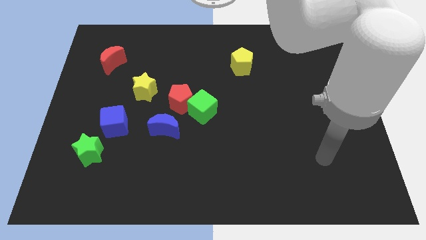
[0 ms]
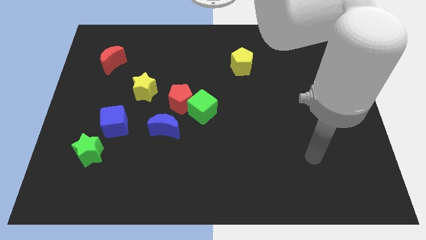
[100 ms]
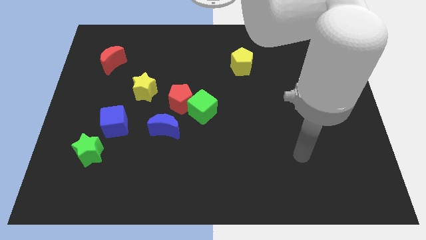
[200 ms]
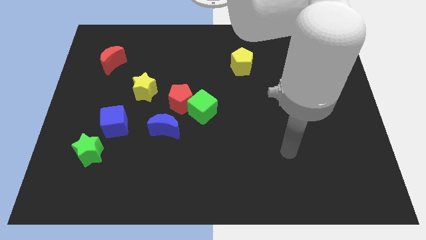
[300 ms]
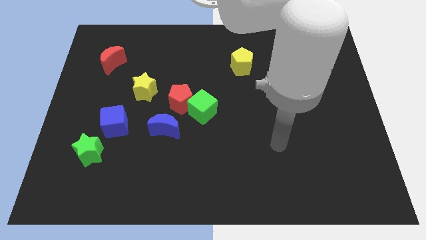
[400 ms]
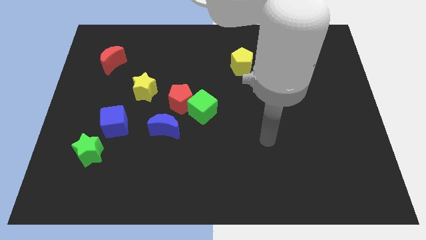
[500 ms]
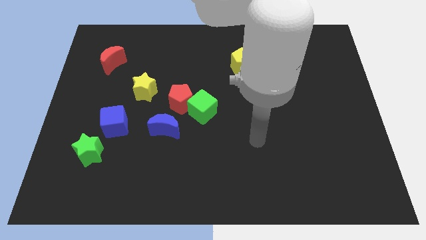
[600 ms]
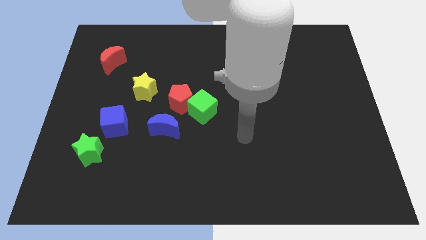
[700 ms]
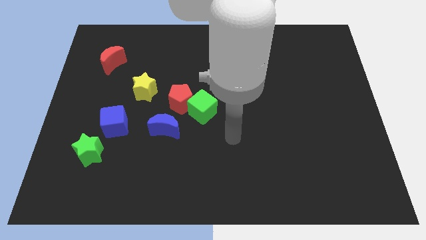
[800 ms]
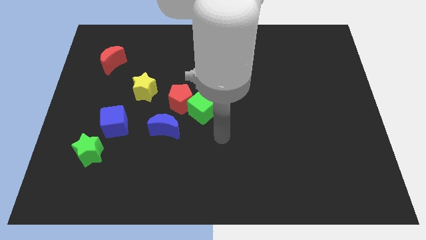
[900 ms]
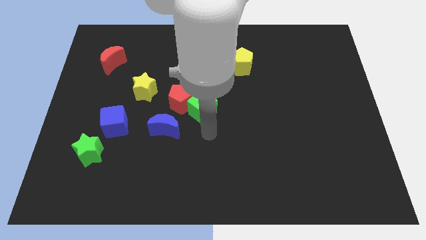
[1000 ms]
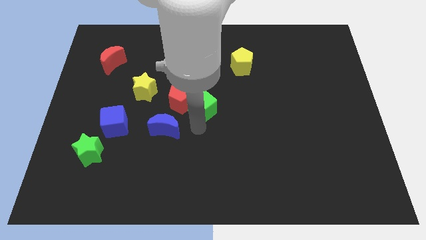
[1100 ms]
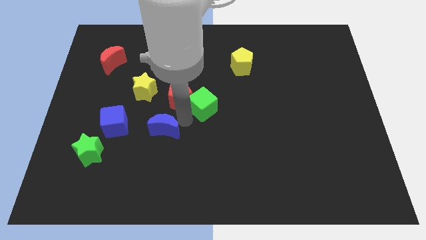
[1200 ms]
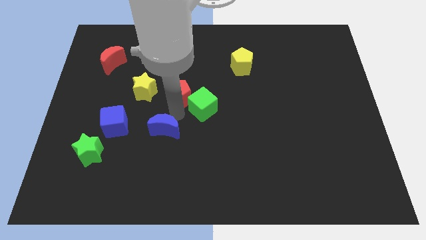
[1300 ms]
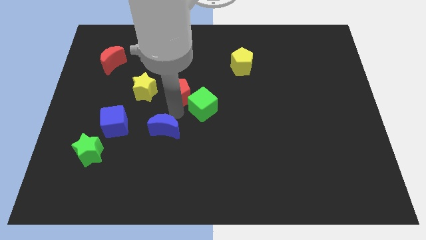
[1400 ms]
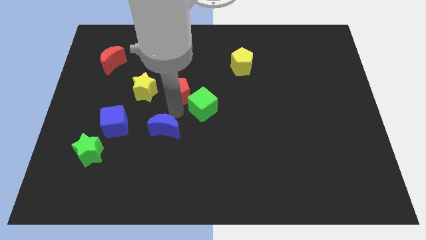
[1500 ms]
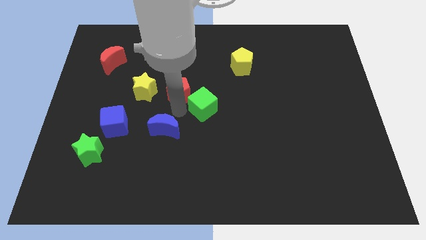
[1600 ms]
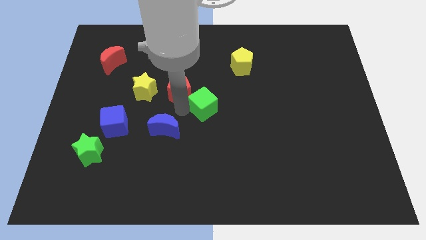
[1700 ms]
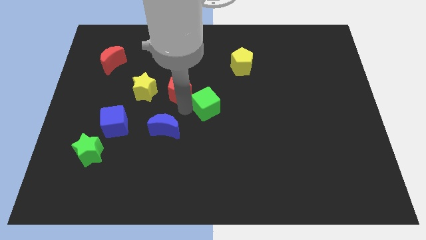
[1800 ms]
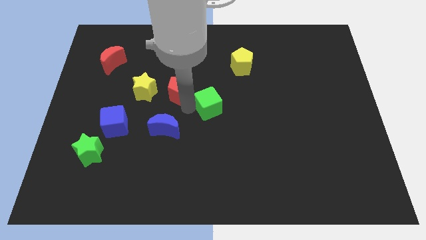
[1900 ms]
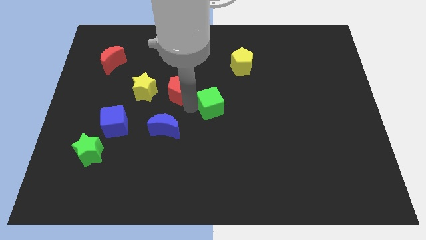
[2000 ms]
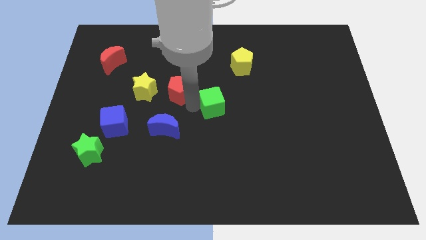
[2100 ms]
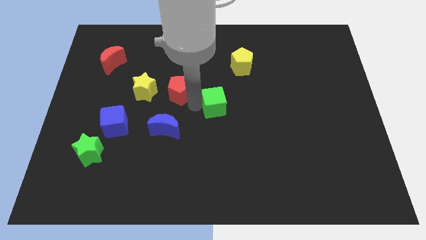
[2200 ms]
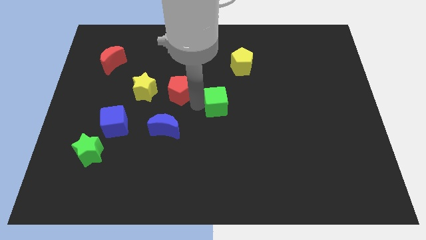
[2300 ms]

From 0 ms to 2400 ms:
move the green cube away from the red pentagon and blue moon

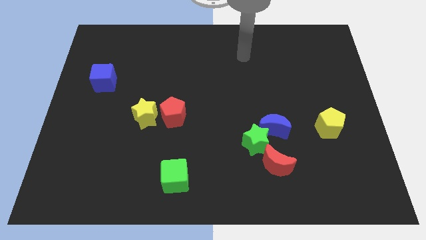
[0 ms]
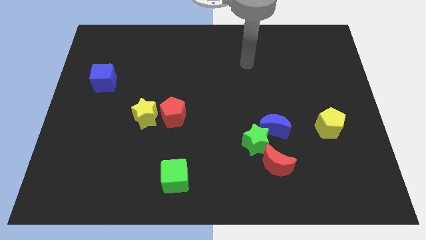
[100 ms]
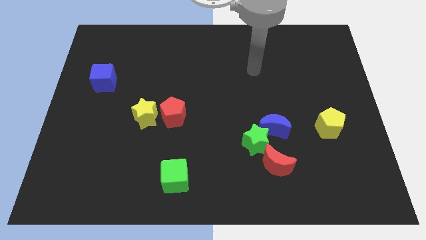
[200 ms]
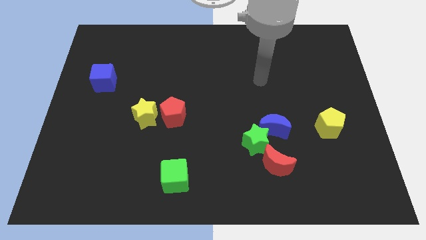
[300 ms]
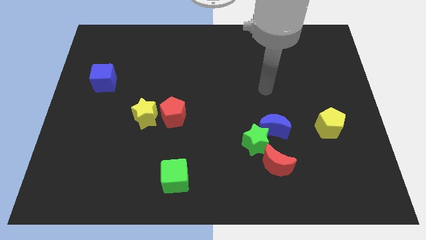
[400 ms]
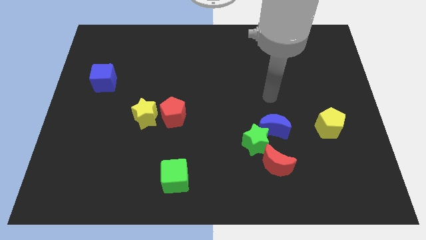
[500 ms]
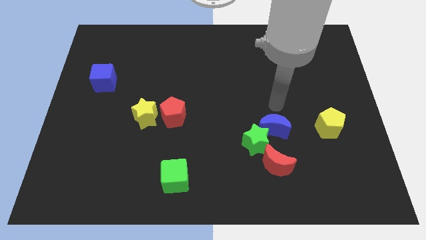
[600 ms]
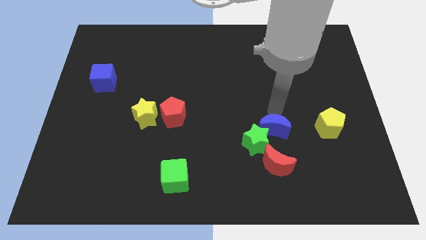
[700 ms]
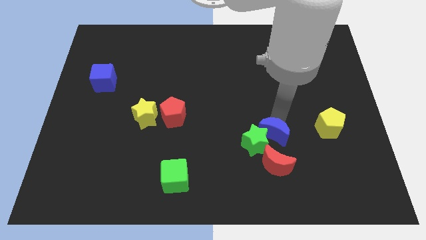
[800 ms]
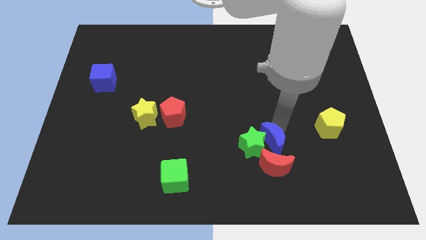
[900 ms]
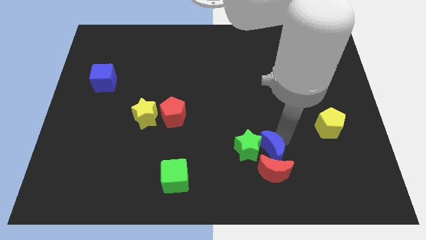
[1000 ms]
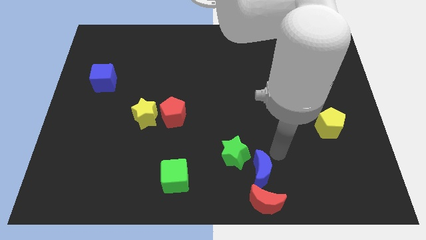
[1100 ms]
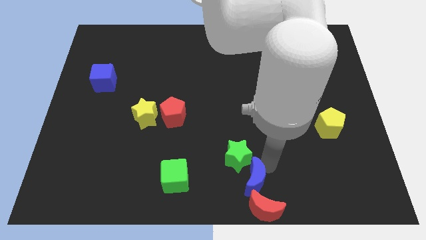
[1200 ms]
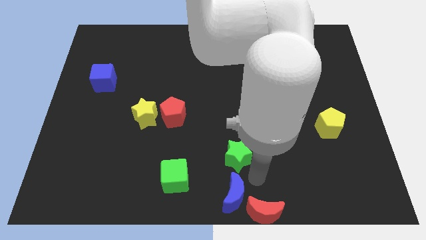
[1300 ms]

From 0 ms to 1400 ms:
move the green star away from the blue moon and red moon

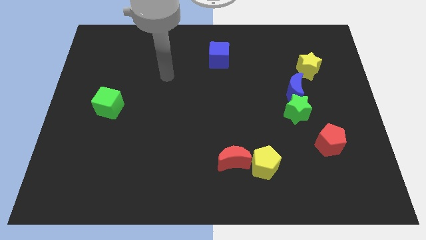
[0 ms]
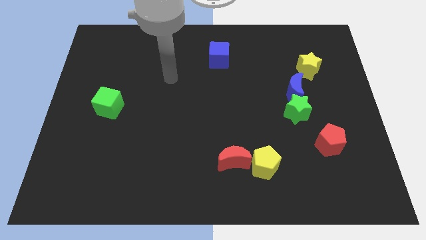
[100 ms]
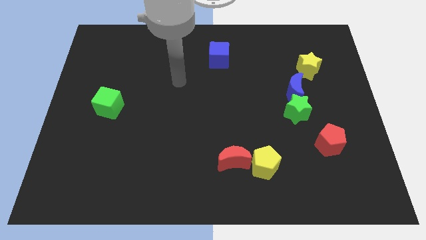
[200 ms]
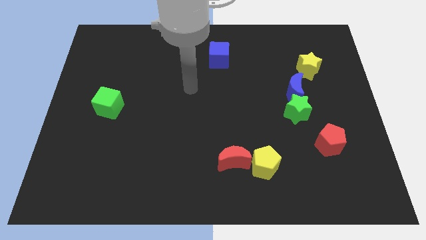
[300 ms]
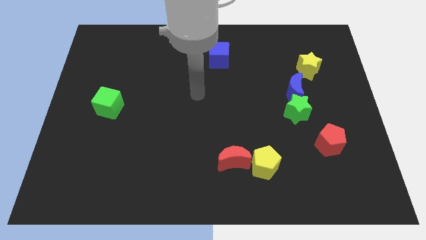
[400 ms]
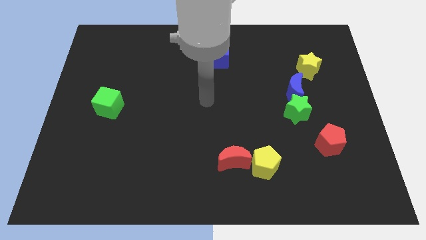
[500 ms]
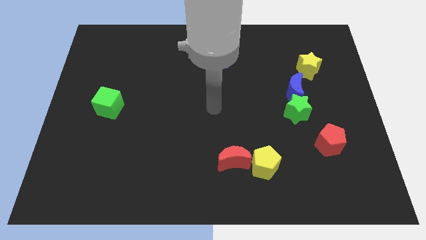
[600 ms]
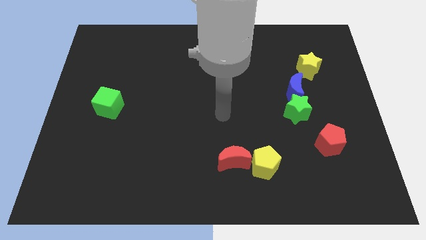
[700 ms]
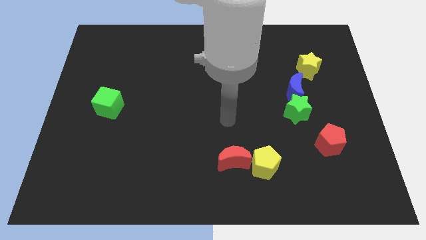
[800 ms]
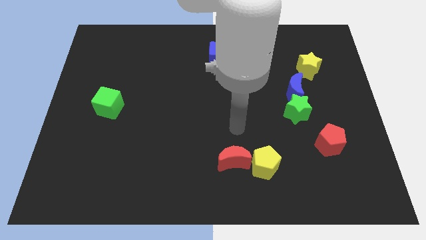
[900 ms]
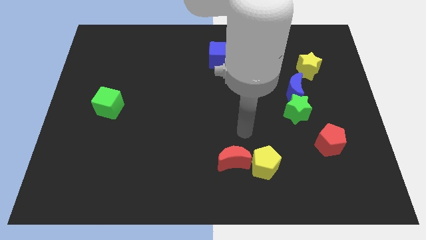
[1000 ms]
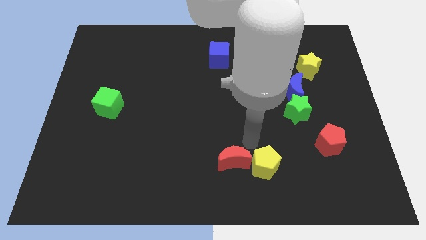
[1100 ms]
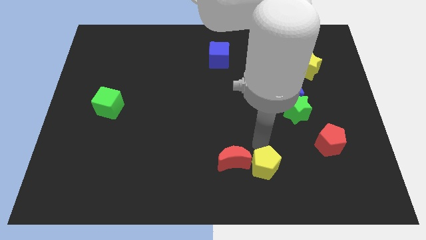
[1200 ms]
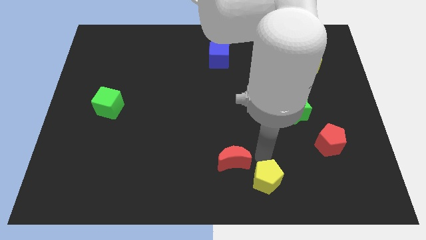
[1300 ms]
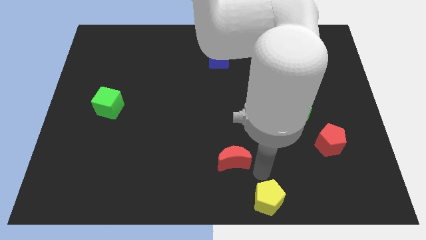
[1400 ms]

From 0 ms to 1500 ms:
pull the red moon apart from the yellow pentagon

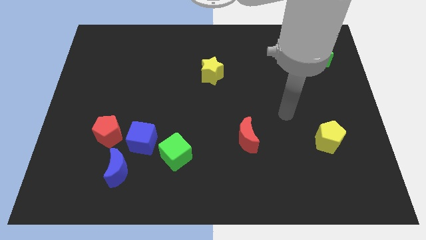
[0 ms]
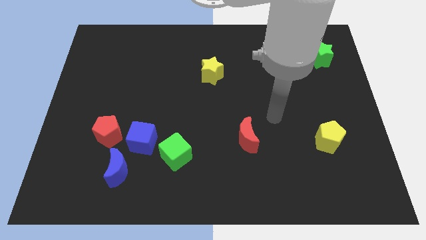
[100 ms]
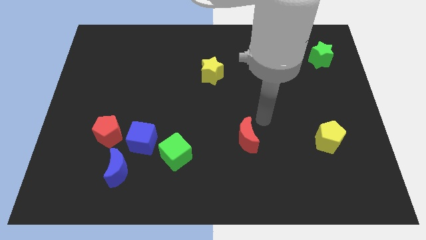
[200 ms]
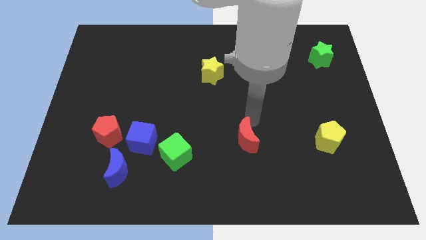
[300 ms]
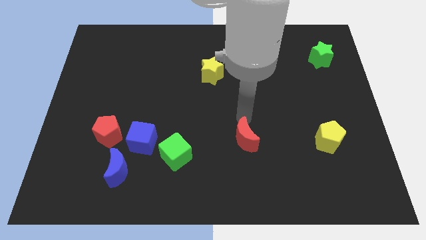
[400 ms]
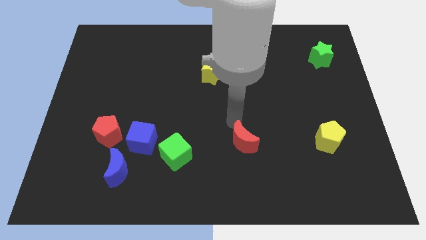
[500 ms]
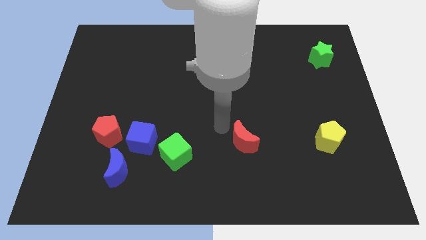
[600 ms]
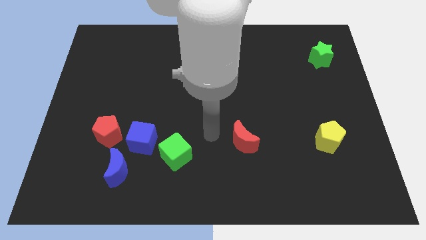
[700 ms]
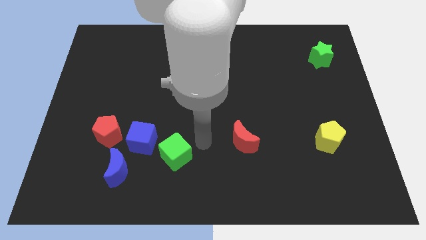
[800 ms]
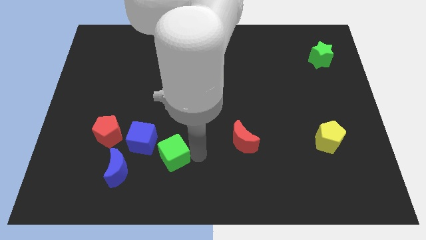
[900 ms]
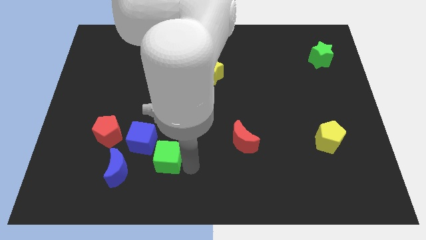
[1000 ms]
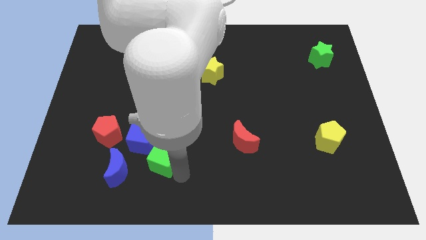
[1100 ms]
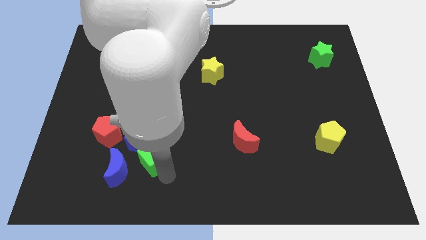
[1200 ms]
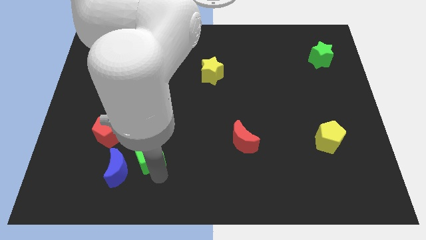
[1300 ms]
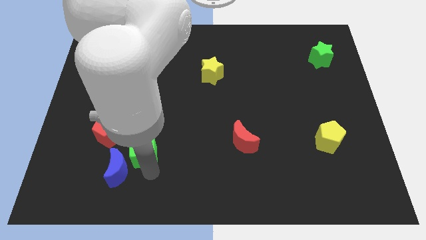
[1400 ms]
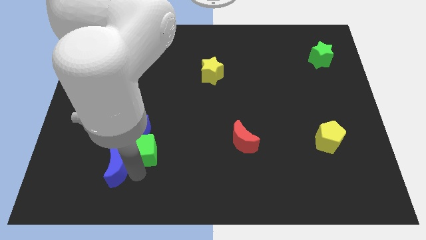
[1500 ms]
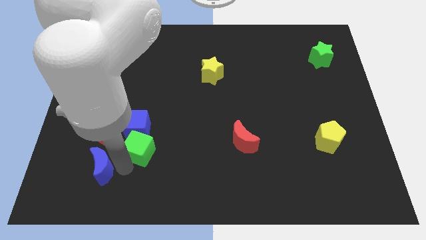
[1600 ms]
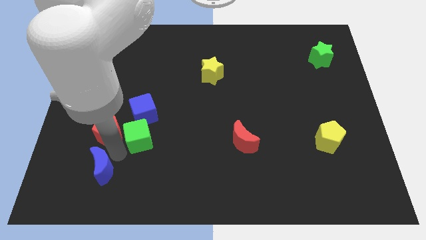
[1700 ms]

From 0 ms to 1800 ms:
separate the blue cube from the group

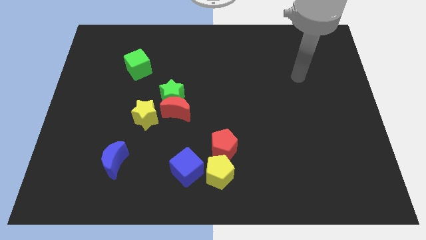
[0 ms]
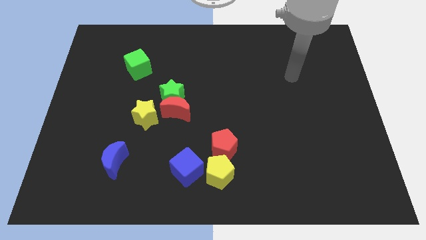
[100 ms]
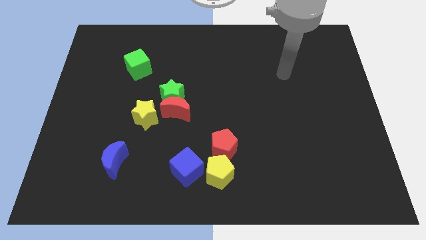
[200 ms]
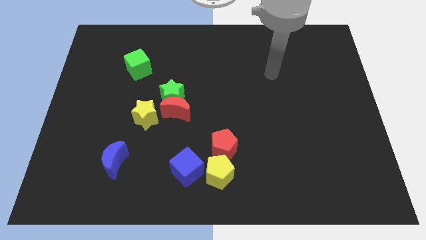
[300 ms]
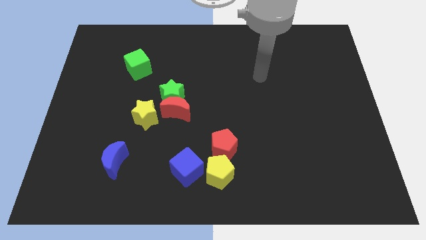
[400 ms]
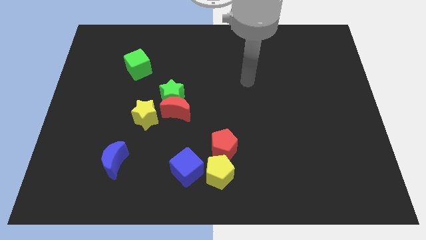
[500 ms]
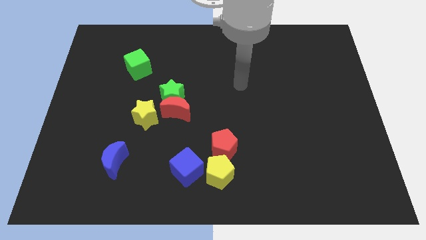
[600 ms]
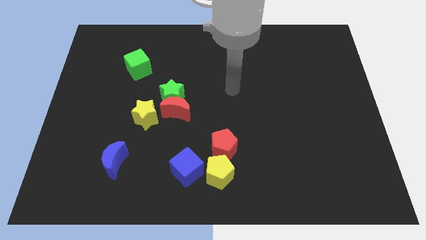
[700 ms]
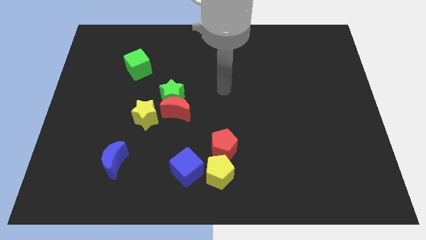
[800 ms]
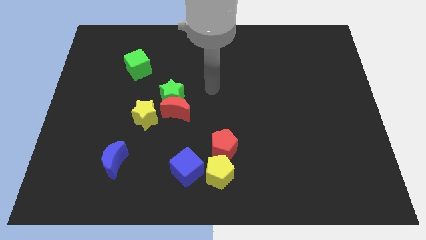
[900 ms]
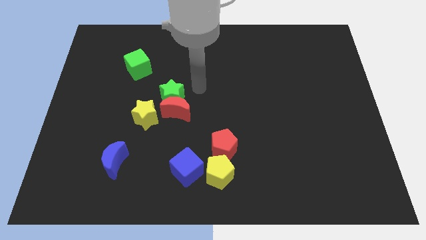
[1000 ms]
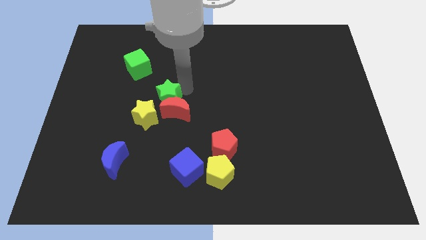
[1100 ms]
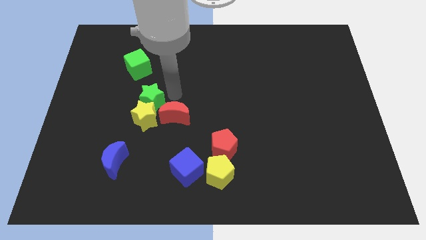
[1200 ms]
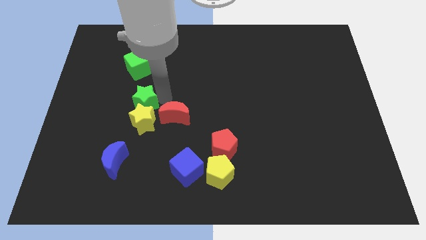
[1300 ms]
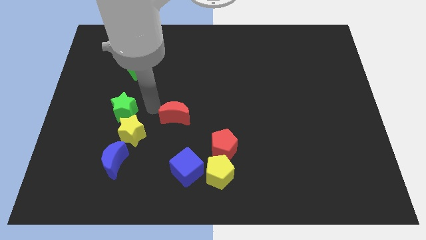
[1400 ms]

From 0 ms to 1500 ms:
separate the red moon from the green star and yellow star

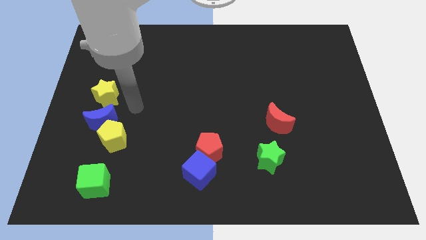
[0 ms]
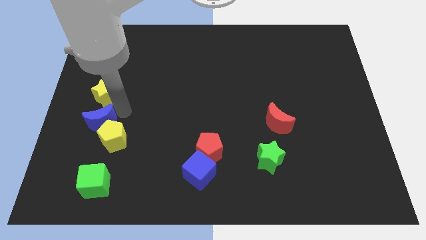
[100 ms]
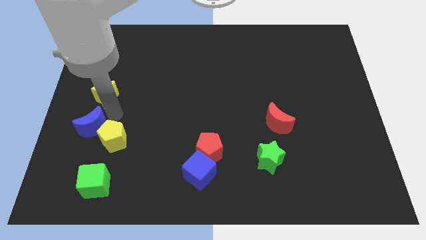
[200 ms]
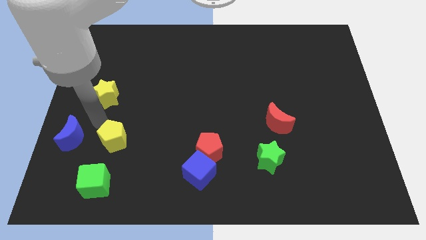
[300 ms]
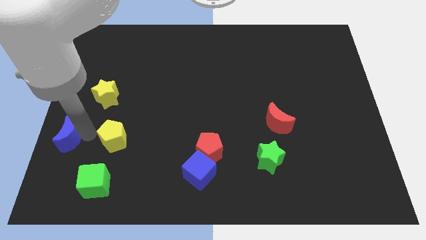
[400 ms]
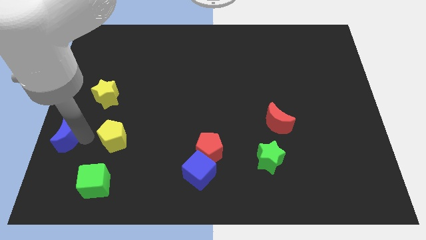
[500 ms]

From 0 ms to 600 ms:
pull the yellow pentagon apart from the blue moon
